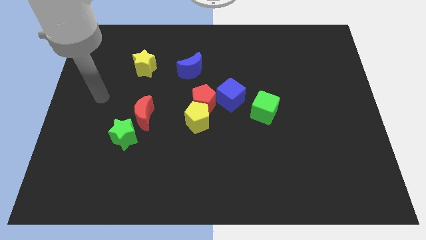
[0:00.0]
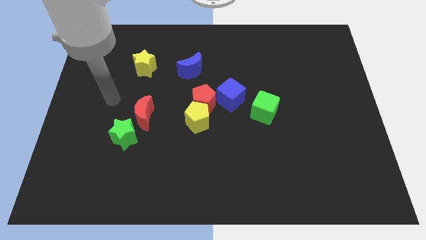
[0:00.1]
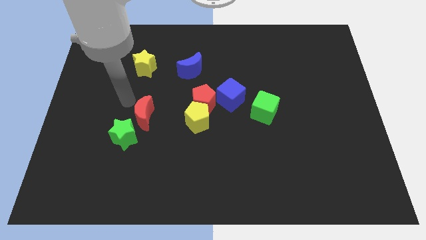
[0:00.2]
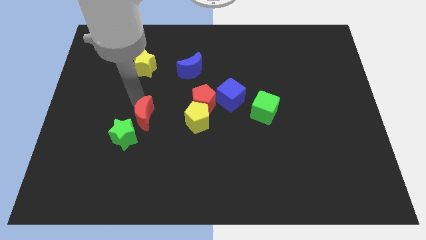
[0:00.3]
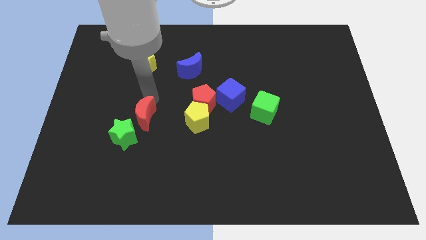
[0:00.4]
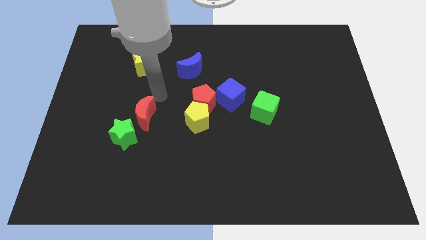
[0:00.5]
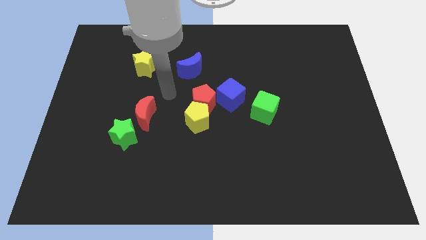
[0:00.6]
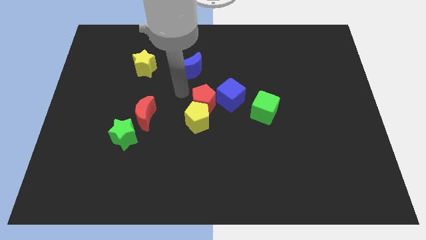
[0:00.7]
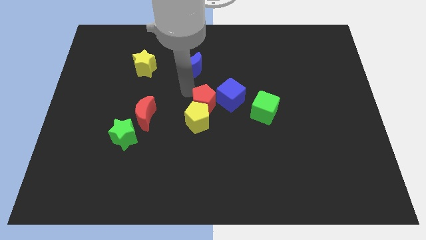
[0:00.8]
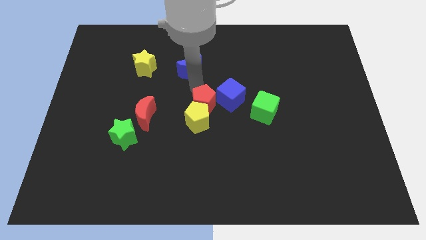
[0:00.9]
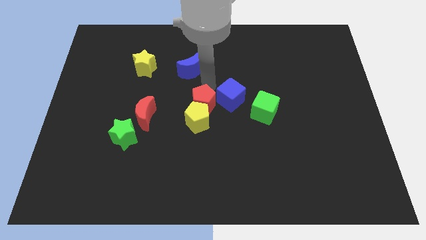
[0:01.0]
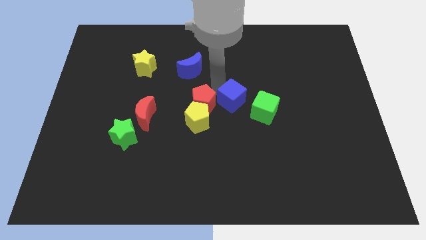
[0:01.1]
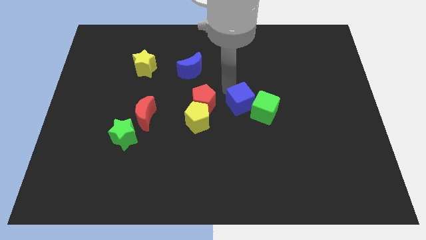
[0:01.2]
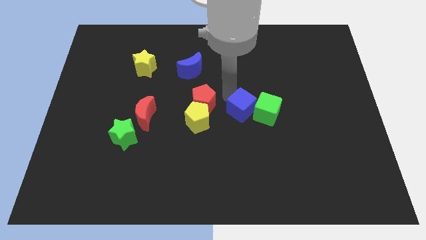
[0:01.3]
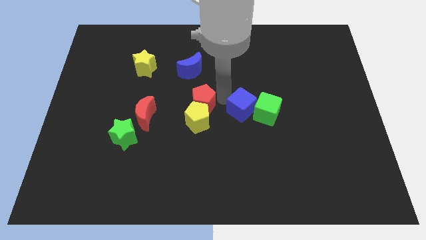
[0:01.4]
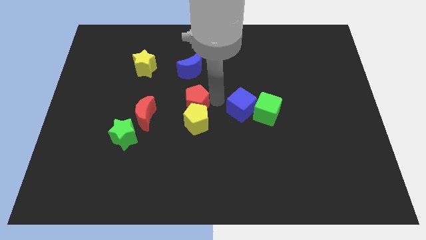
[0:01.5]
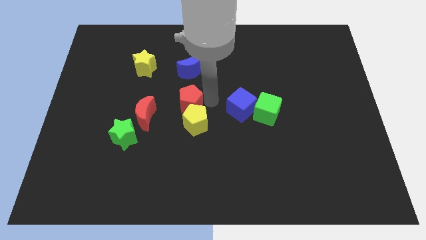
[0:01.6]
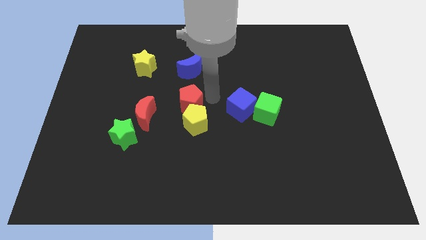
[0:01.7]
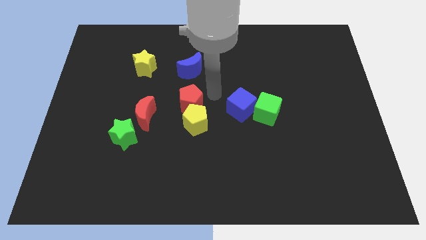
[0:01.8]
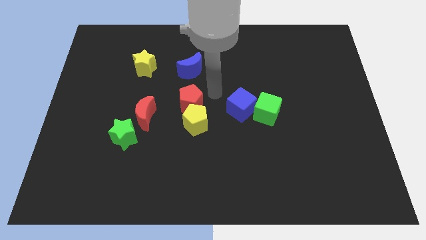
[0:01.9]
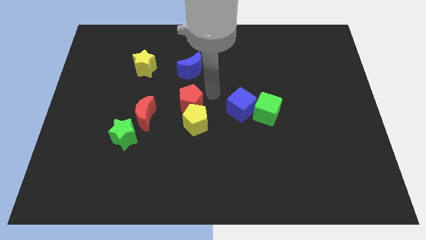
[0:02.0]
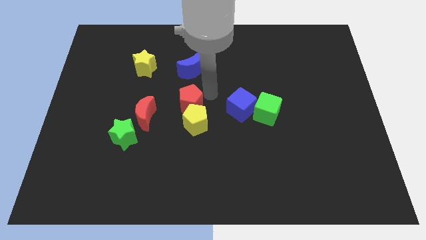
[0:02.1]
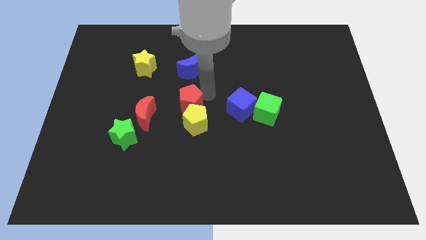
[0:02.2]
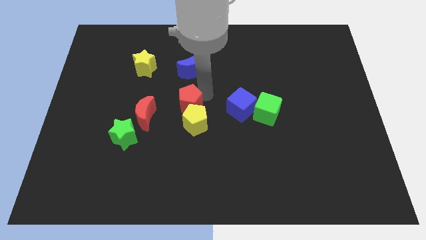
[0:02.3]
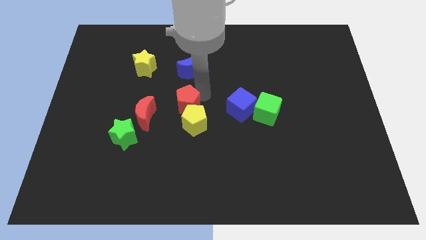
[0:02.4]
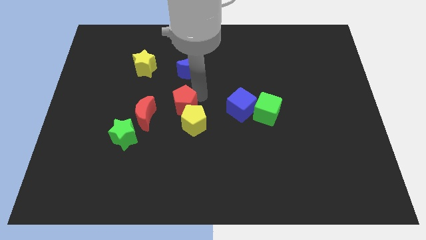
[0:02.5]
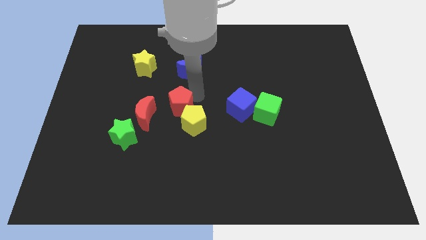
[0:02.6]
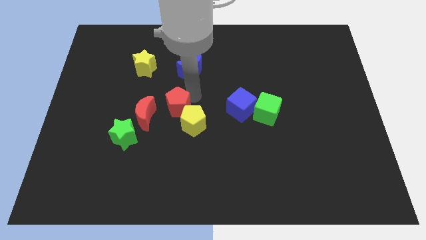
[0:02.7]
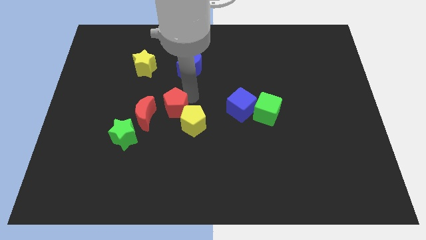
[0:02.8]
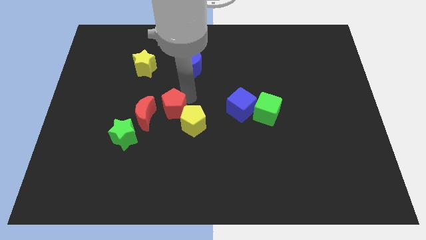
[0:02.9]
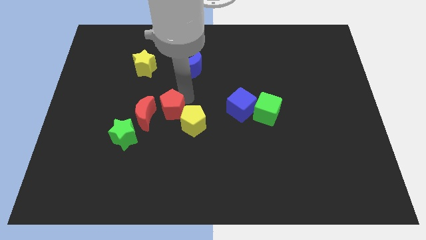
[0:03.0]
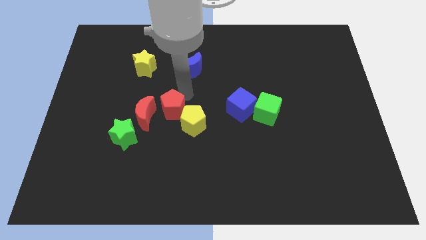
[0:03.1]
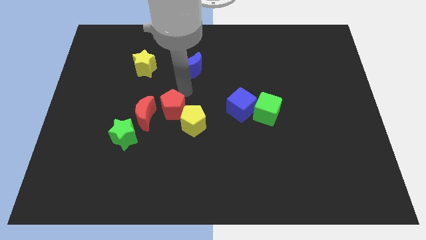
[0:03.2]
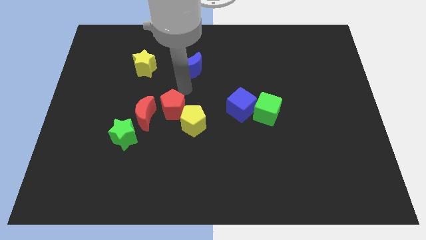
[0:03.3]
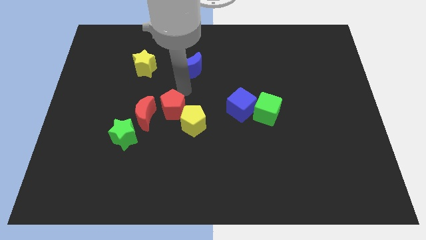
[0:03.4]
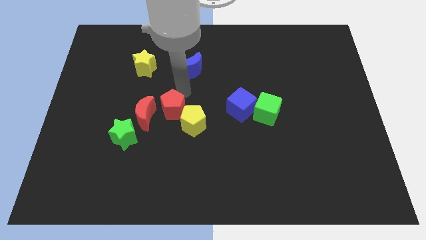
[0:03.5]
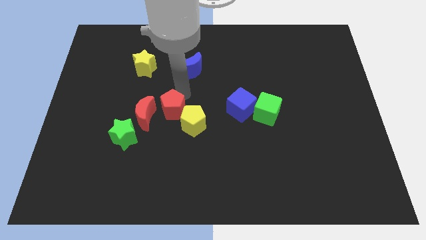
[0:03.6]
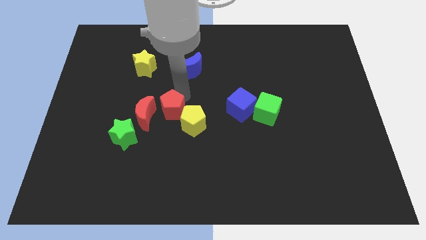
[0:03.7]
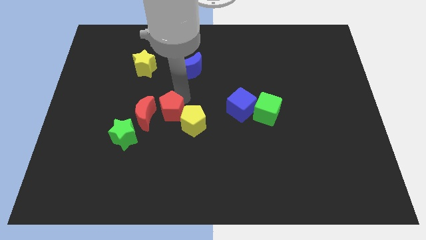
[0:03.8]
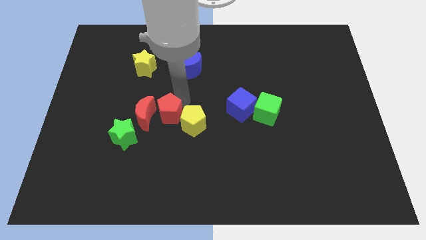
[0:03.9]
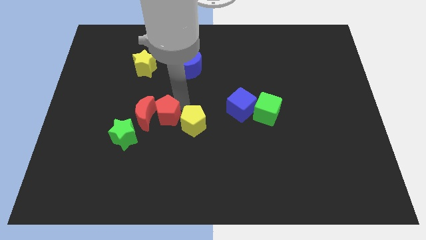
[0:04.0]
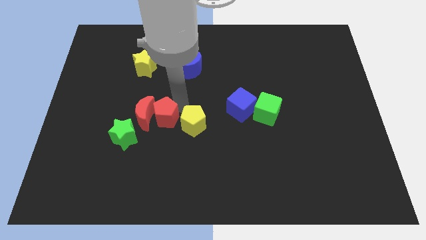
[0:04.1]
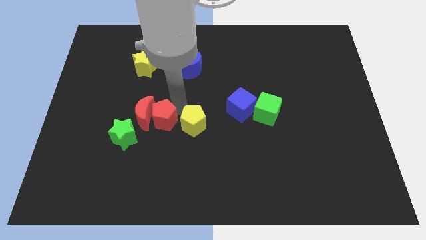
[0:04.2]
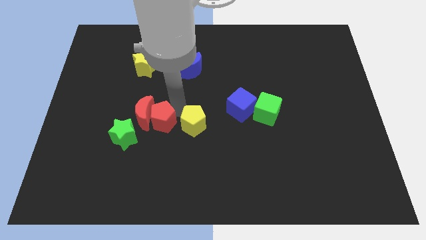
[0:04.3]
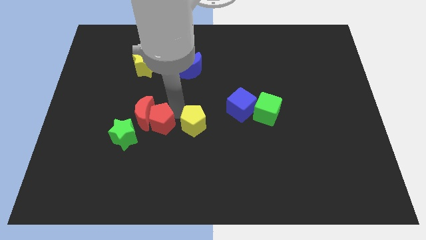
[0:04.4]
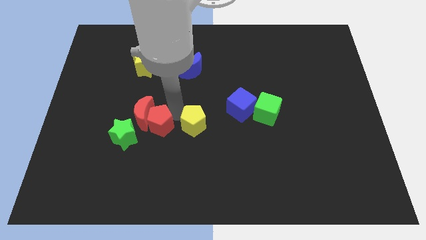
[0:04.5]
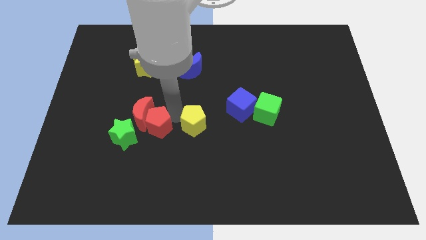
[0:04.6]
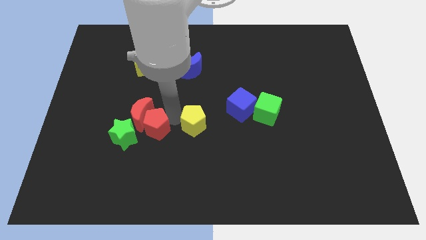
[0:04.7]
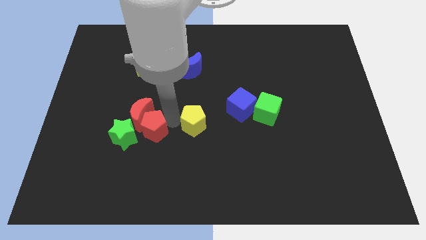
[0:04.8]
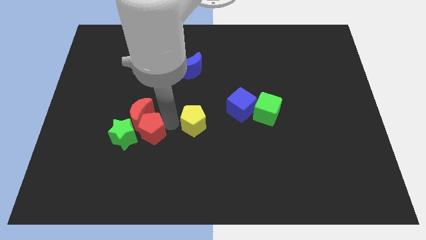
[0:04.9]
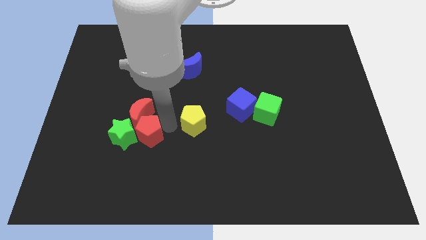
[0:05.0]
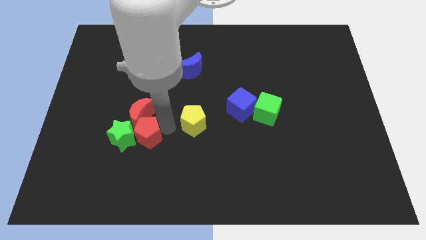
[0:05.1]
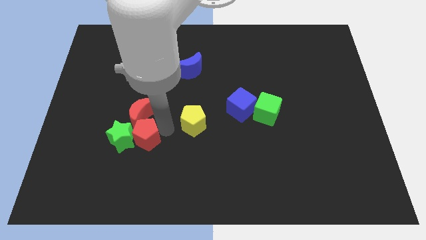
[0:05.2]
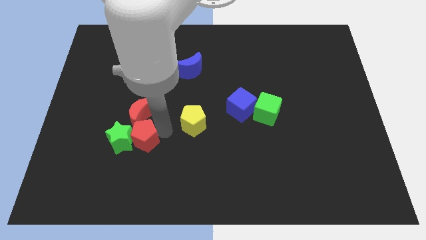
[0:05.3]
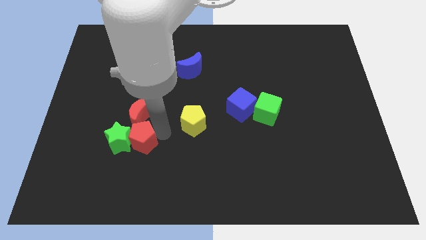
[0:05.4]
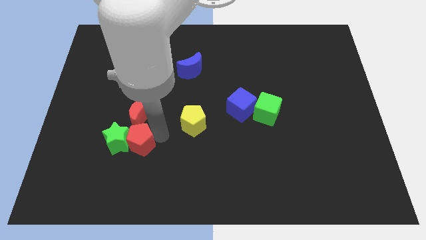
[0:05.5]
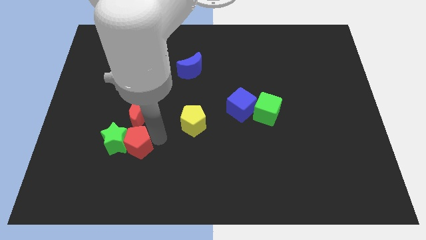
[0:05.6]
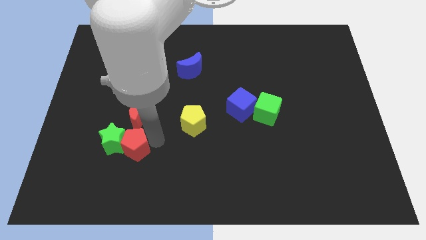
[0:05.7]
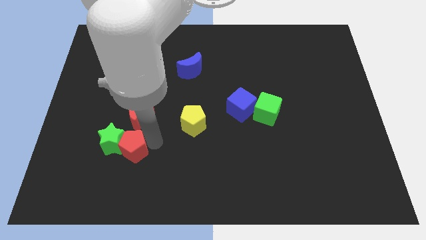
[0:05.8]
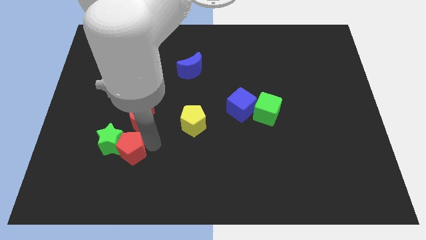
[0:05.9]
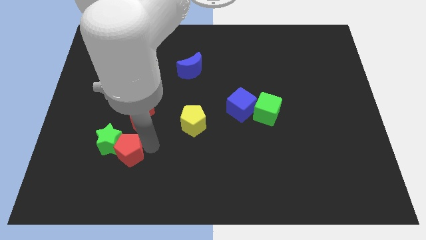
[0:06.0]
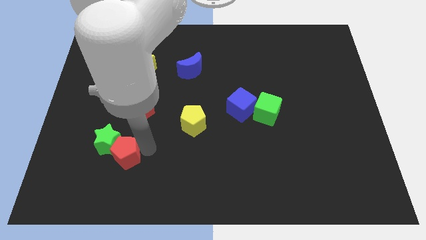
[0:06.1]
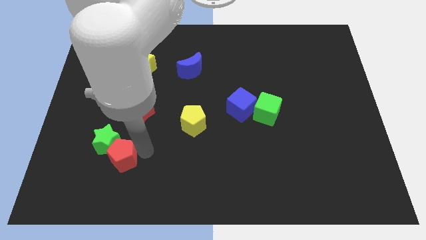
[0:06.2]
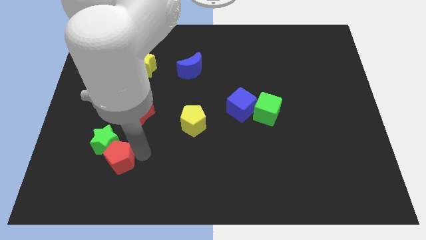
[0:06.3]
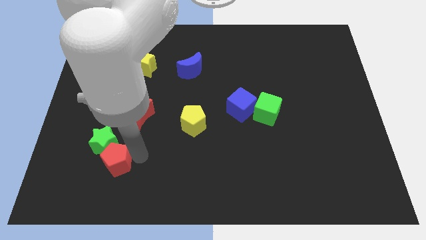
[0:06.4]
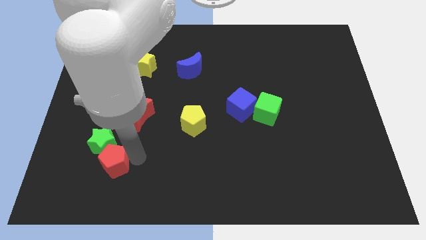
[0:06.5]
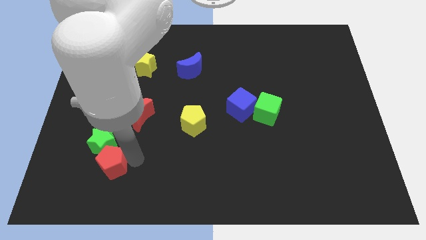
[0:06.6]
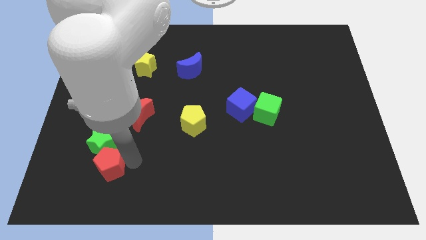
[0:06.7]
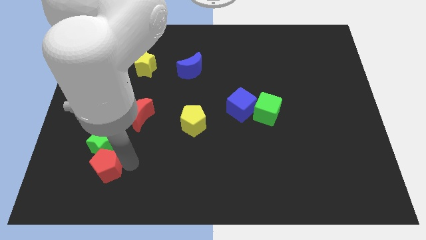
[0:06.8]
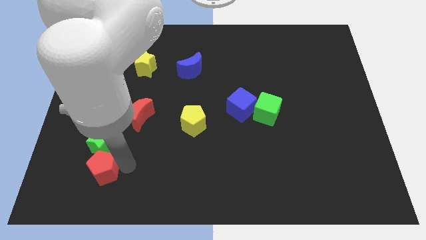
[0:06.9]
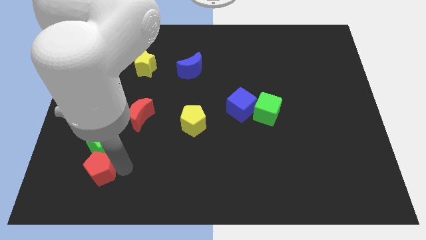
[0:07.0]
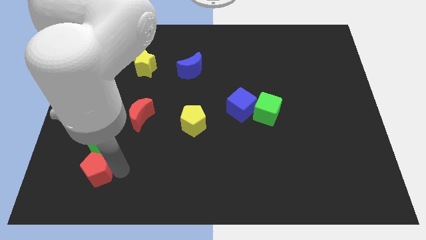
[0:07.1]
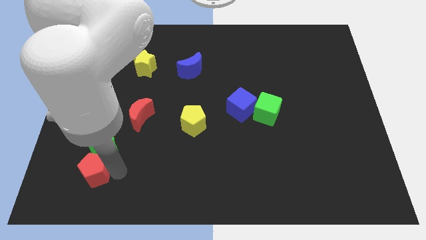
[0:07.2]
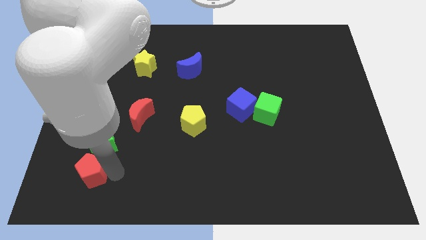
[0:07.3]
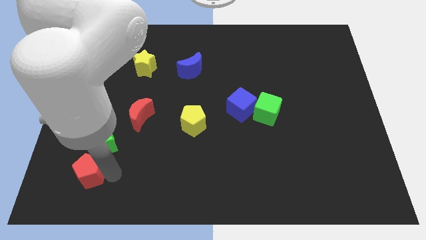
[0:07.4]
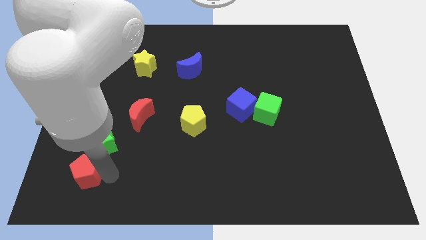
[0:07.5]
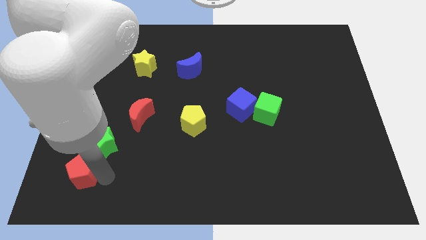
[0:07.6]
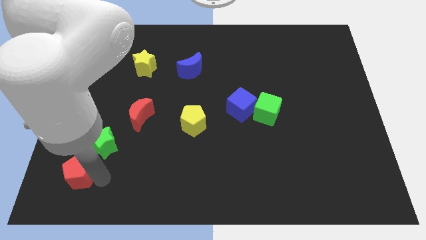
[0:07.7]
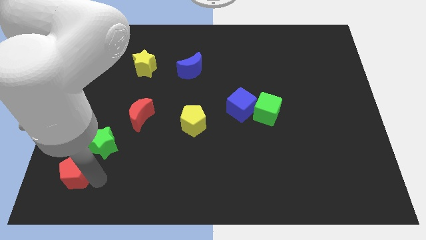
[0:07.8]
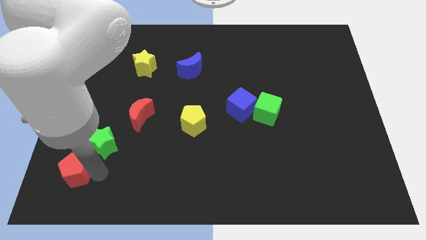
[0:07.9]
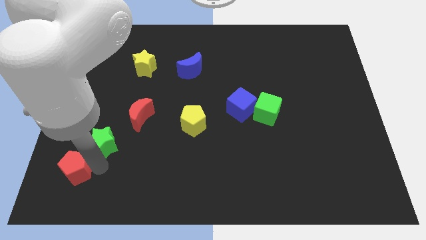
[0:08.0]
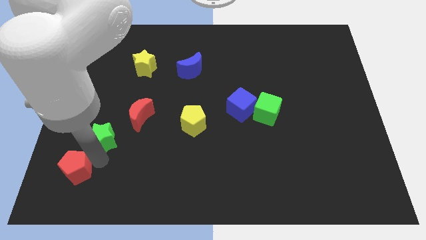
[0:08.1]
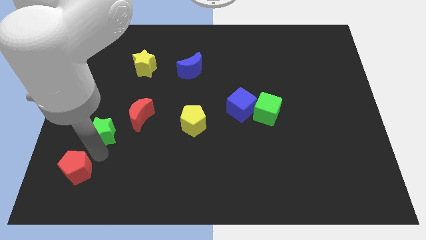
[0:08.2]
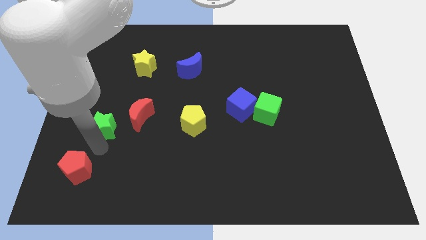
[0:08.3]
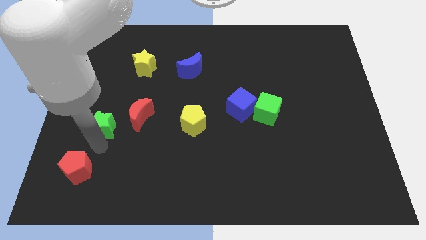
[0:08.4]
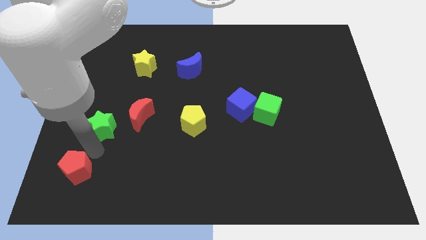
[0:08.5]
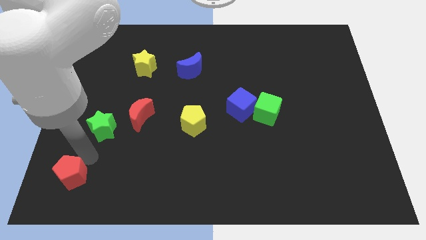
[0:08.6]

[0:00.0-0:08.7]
push the red pentagon to the bottom left corner
